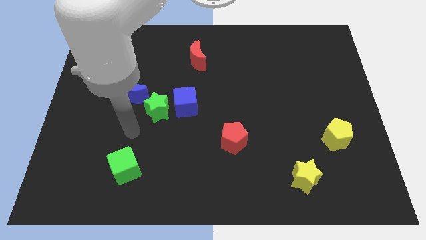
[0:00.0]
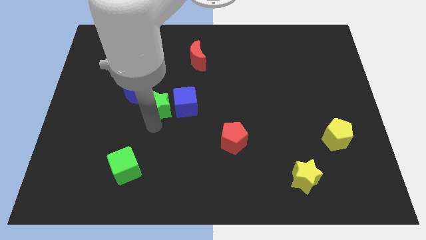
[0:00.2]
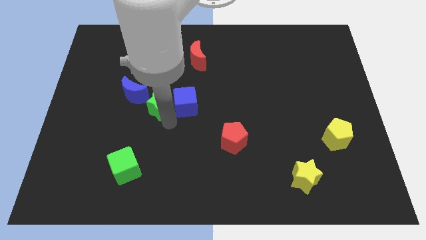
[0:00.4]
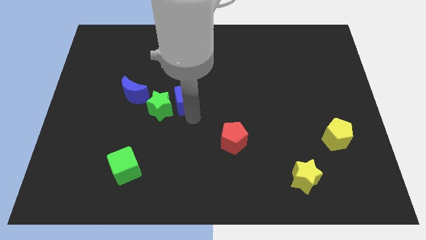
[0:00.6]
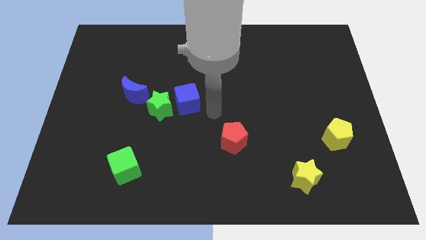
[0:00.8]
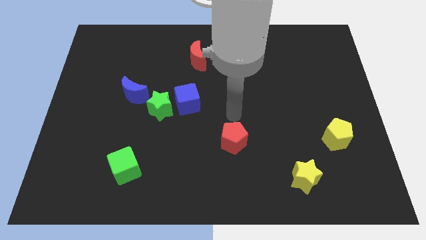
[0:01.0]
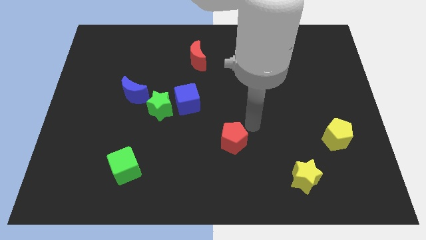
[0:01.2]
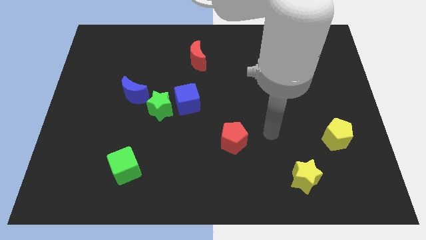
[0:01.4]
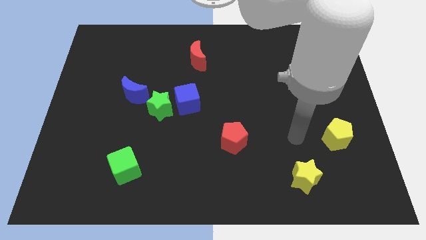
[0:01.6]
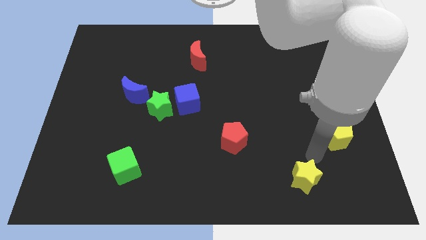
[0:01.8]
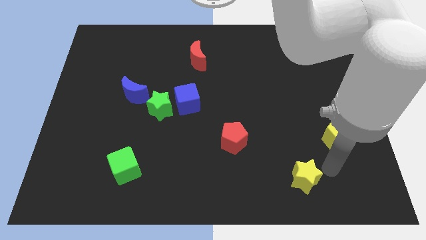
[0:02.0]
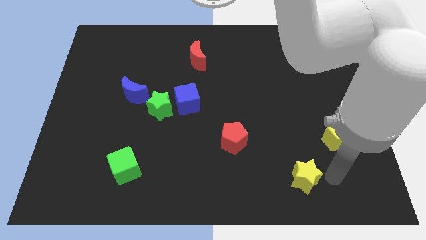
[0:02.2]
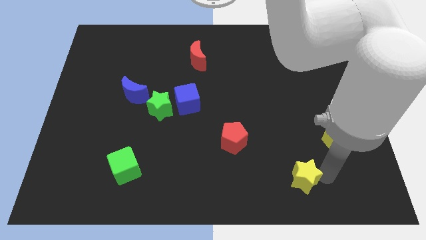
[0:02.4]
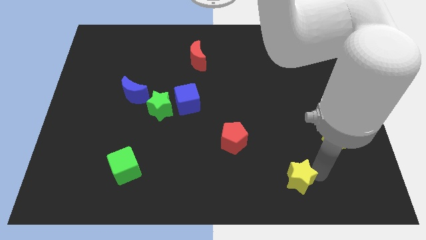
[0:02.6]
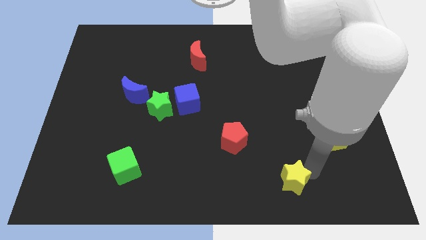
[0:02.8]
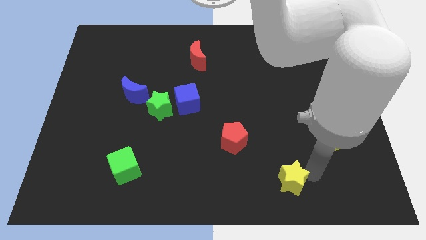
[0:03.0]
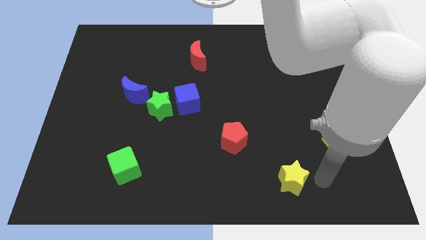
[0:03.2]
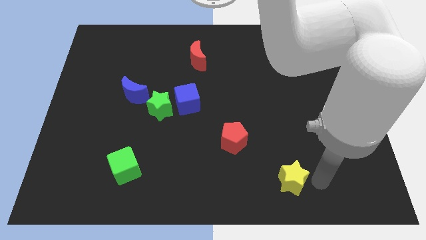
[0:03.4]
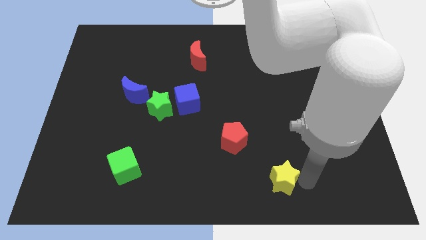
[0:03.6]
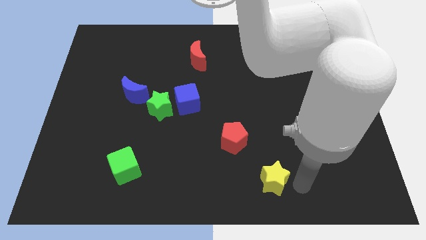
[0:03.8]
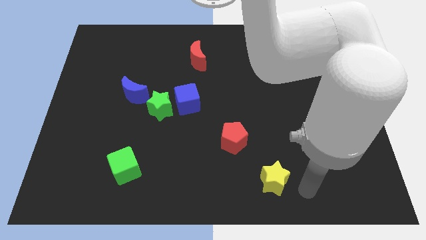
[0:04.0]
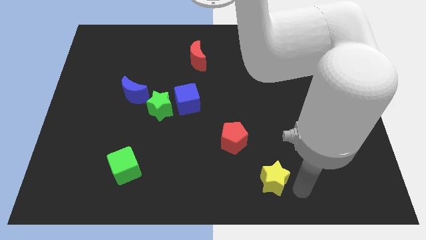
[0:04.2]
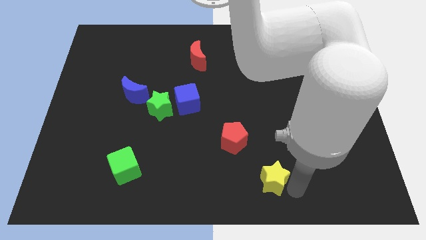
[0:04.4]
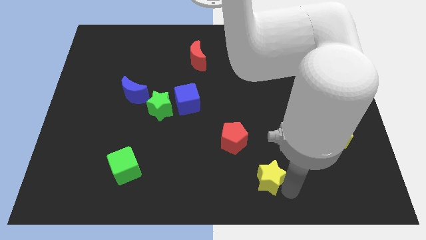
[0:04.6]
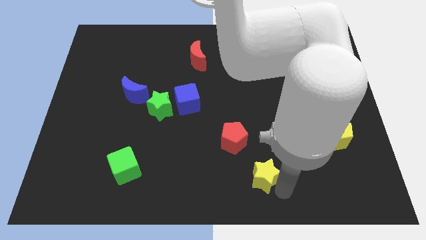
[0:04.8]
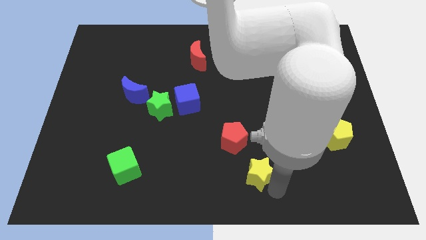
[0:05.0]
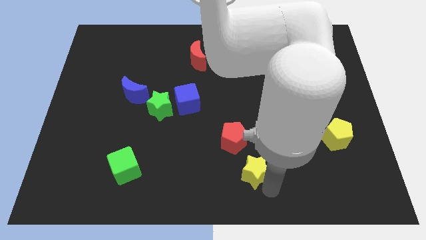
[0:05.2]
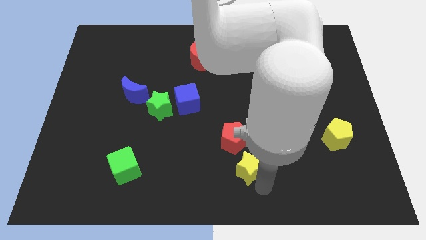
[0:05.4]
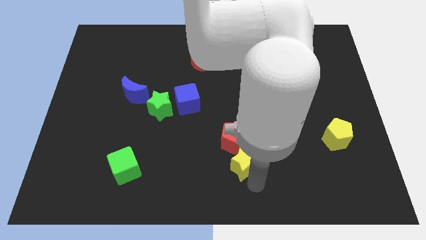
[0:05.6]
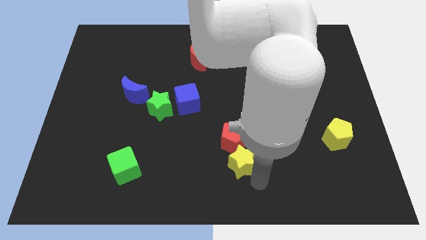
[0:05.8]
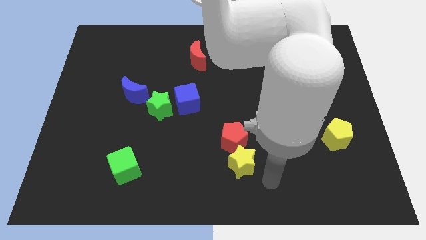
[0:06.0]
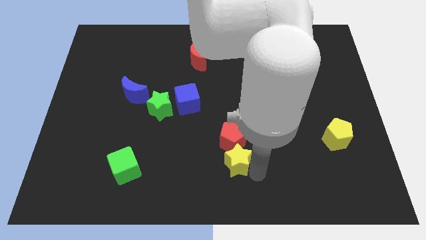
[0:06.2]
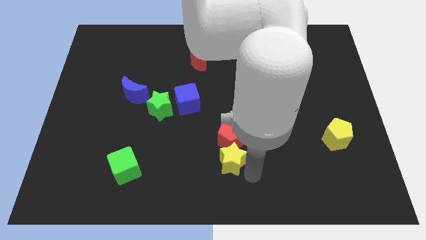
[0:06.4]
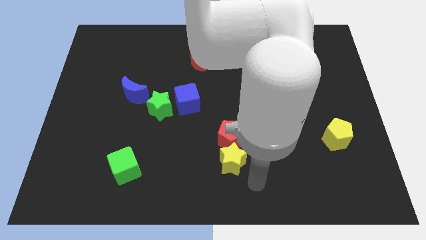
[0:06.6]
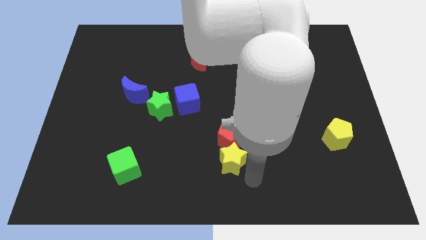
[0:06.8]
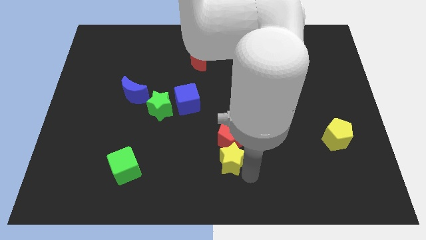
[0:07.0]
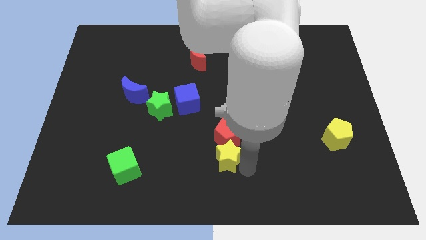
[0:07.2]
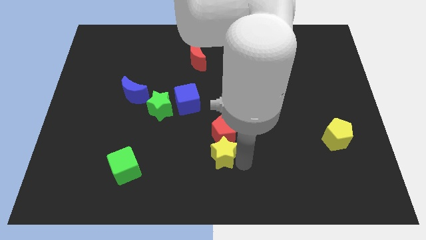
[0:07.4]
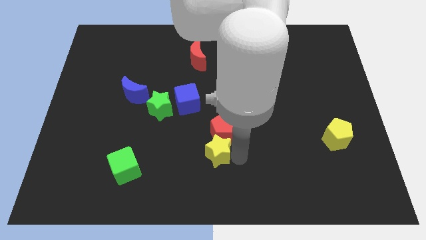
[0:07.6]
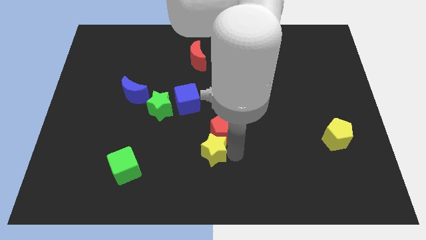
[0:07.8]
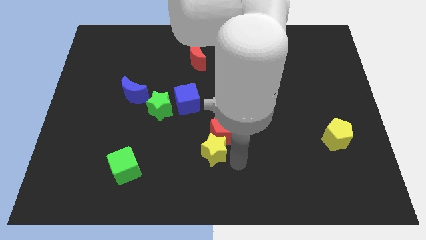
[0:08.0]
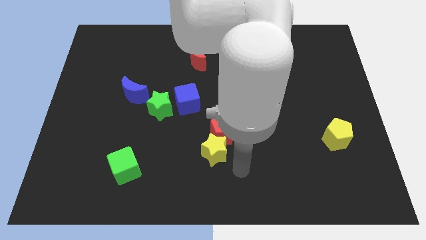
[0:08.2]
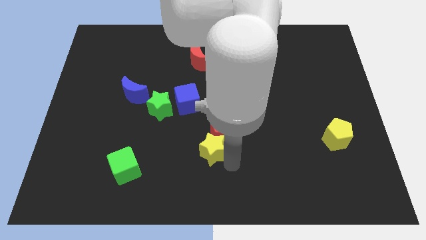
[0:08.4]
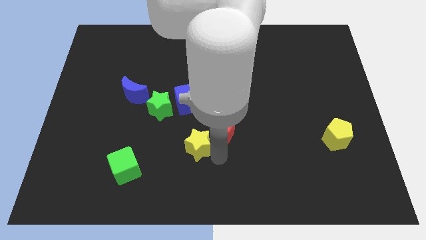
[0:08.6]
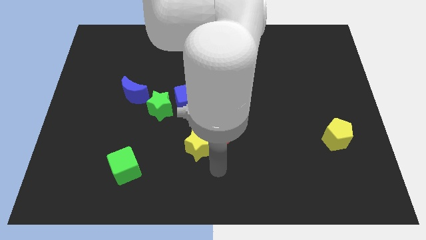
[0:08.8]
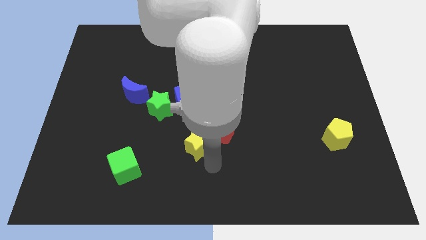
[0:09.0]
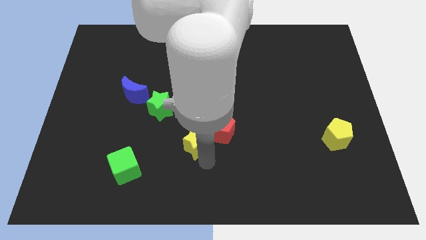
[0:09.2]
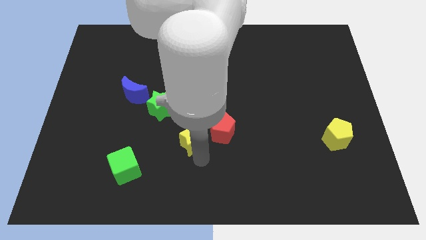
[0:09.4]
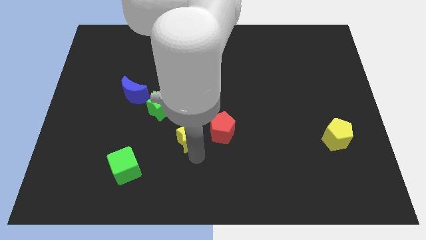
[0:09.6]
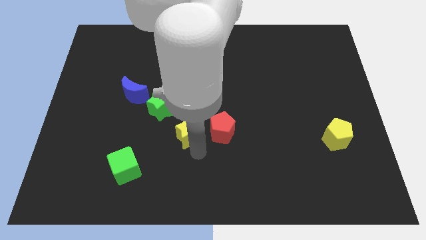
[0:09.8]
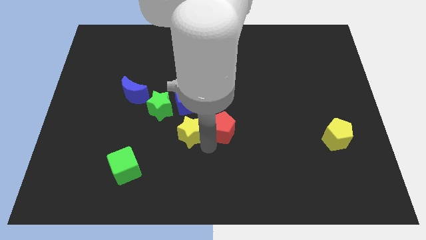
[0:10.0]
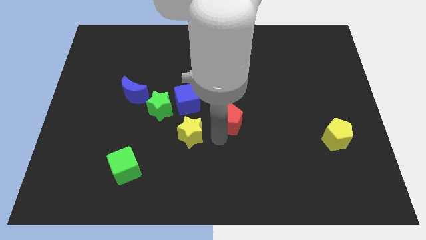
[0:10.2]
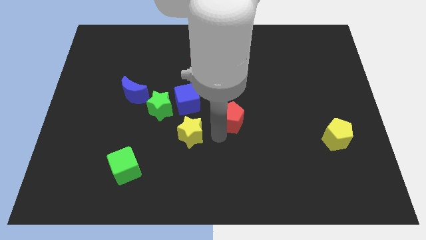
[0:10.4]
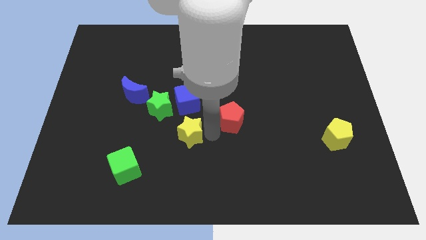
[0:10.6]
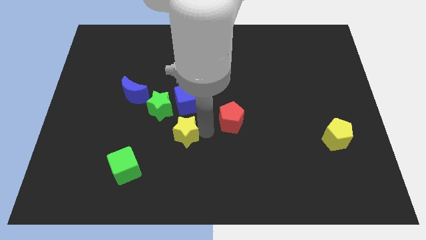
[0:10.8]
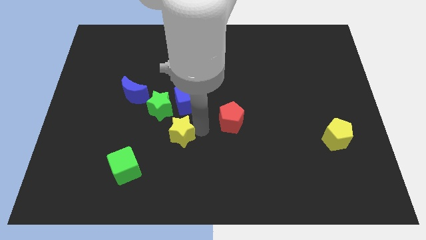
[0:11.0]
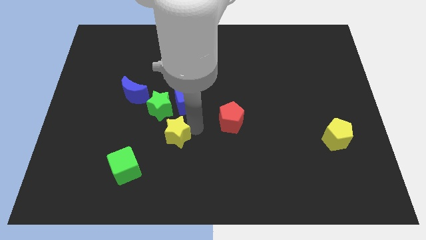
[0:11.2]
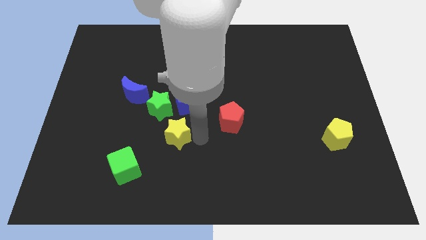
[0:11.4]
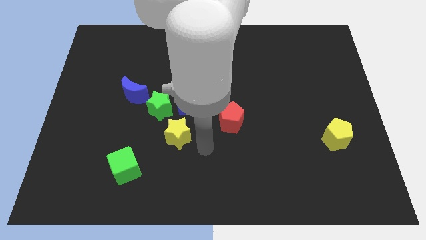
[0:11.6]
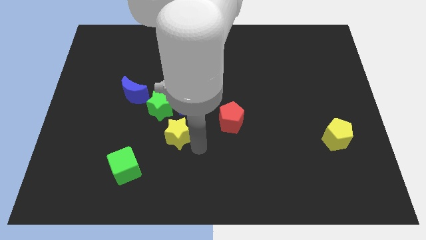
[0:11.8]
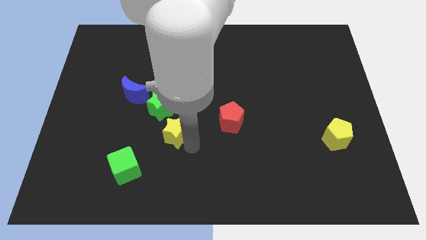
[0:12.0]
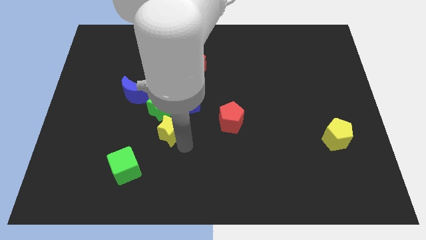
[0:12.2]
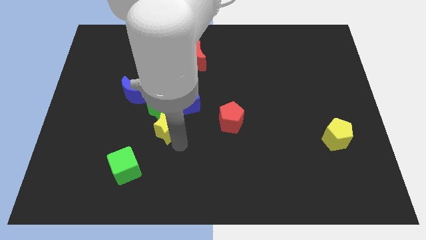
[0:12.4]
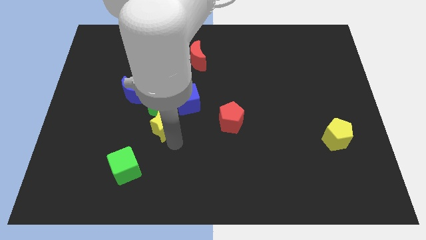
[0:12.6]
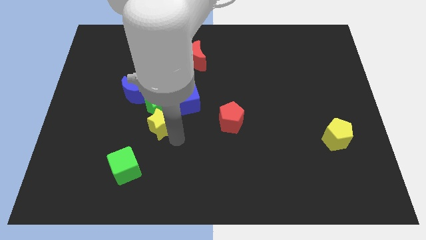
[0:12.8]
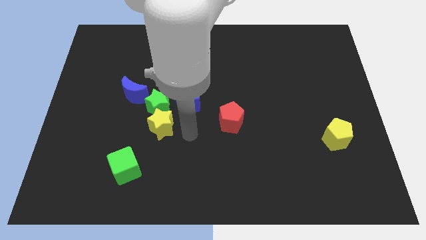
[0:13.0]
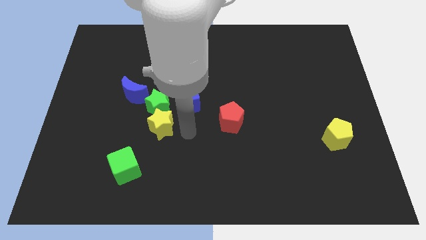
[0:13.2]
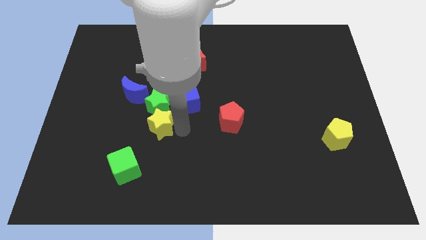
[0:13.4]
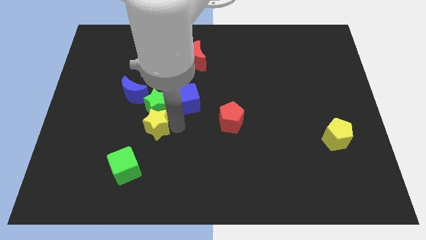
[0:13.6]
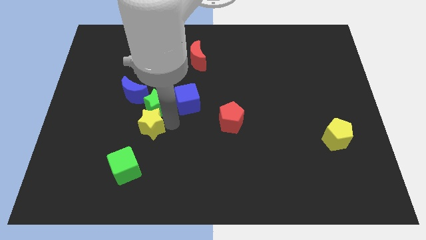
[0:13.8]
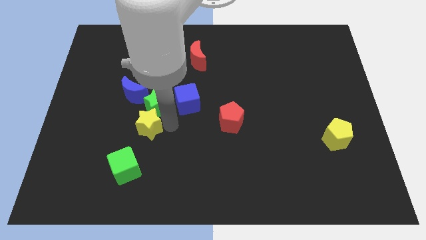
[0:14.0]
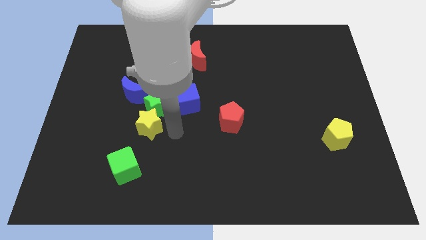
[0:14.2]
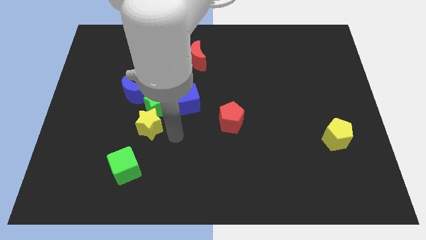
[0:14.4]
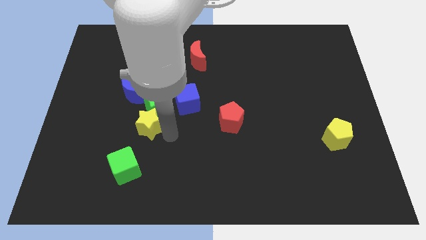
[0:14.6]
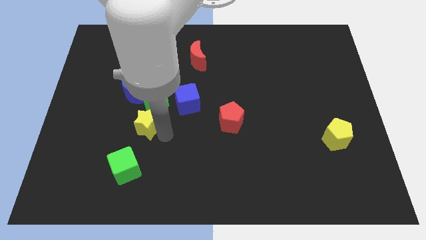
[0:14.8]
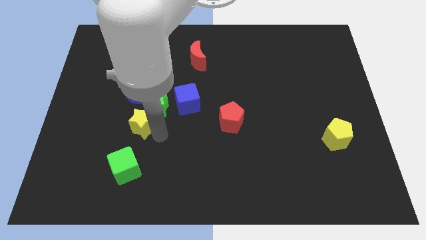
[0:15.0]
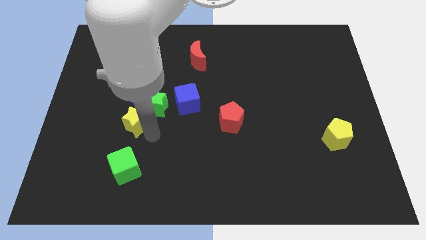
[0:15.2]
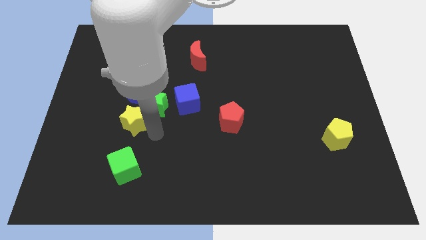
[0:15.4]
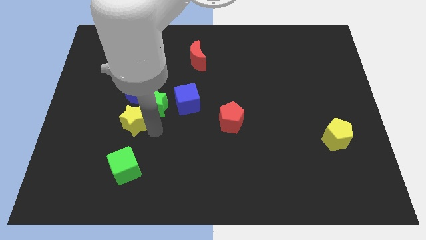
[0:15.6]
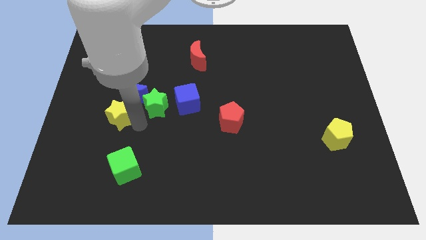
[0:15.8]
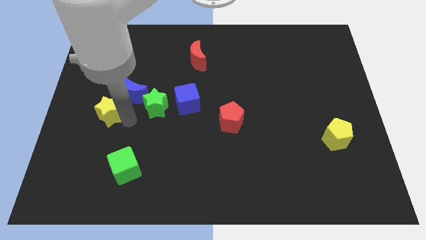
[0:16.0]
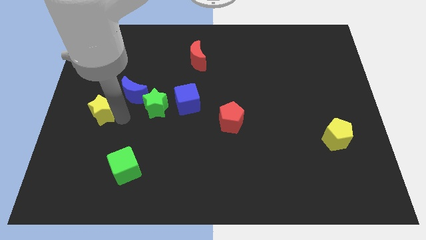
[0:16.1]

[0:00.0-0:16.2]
put the yellow star to the left side
